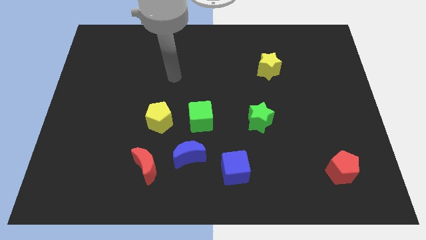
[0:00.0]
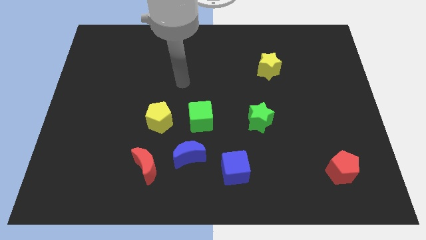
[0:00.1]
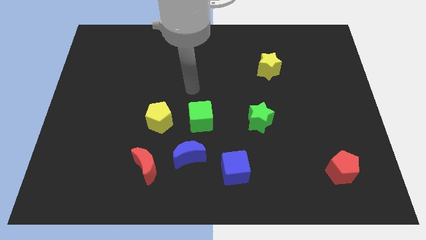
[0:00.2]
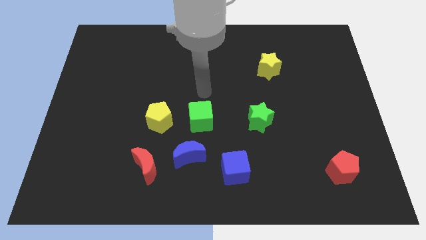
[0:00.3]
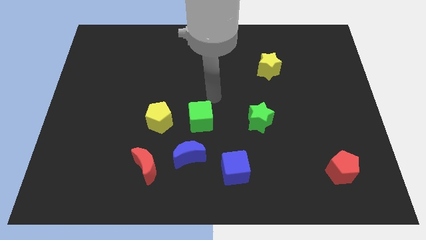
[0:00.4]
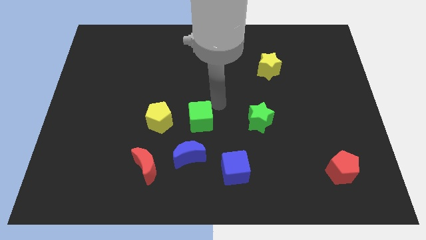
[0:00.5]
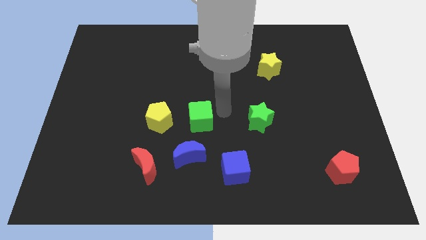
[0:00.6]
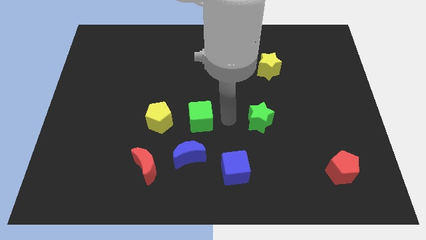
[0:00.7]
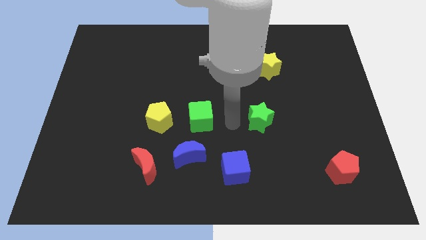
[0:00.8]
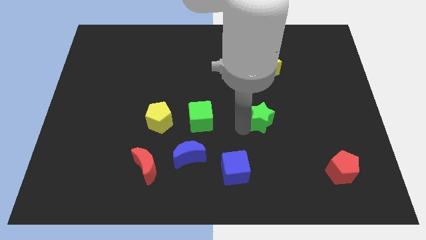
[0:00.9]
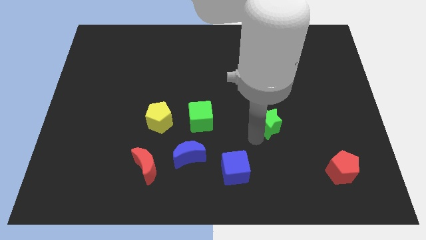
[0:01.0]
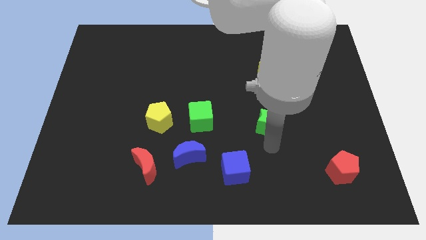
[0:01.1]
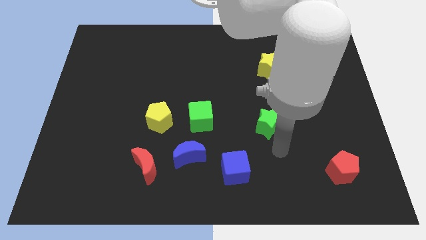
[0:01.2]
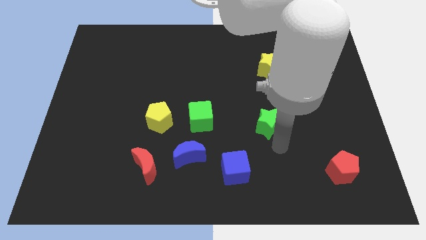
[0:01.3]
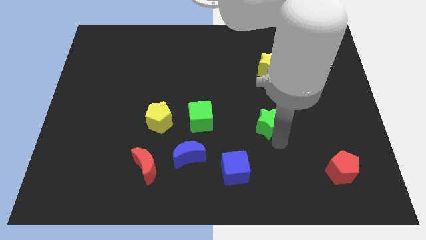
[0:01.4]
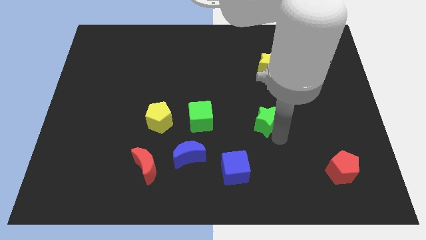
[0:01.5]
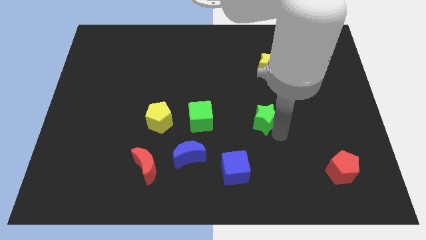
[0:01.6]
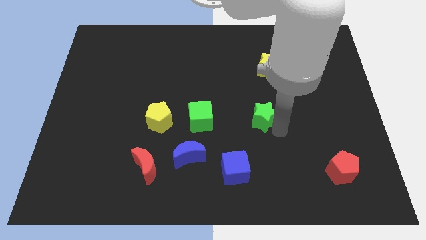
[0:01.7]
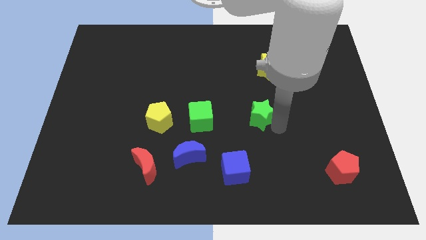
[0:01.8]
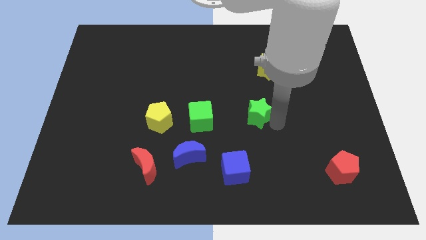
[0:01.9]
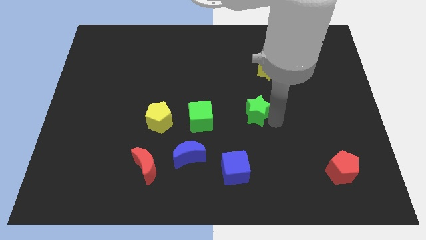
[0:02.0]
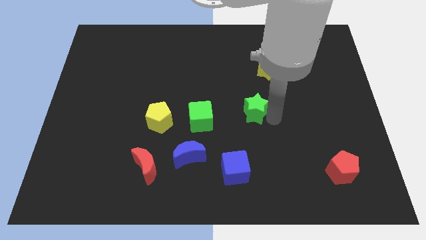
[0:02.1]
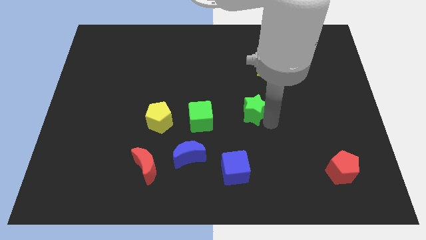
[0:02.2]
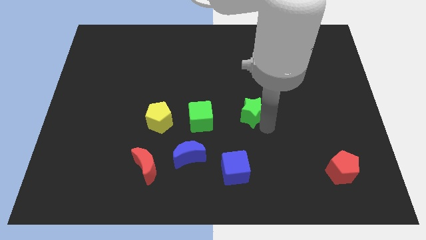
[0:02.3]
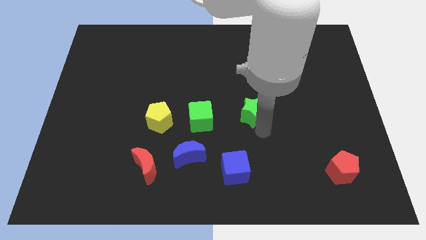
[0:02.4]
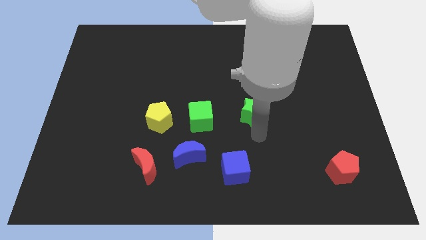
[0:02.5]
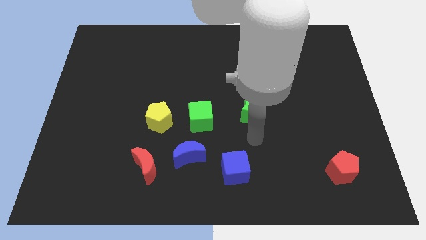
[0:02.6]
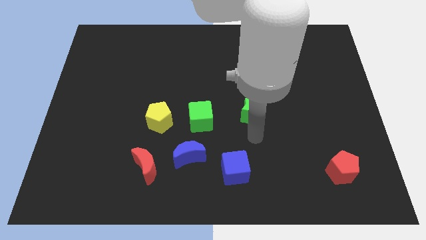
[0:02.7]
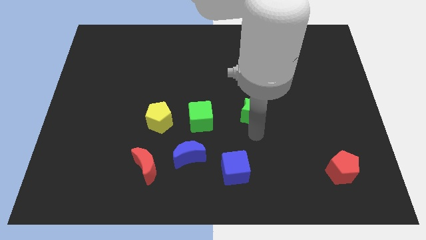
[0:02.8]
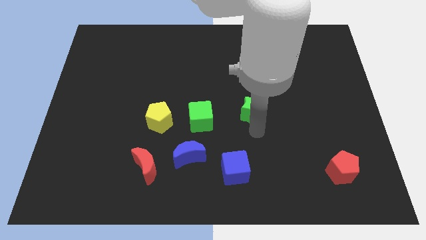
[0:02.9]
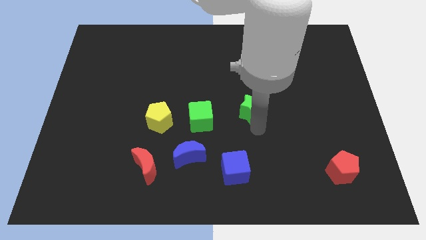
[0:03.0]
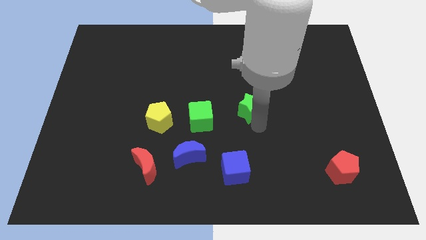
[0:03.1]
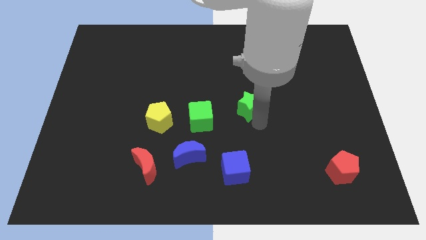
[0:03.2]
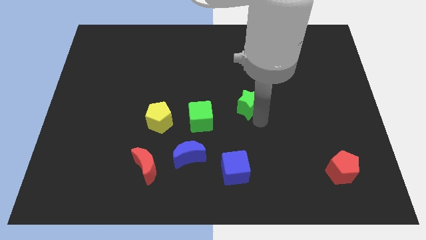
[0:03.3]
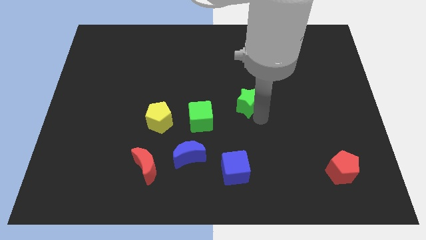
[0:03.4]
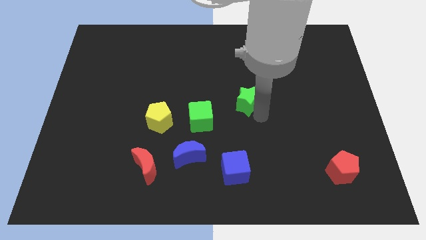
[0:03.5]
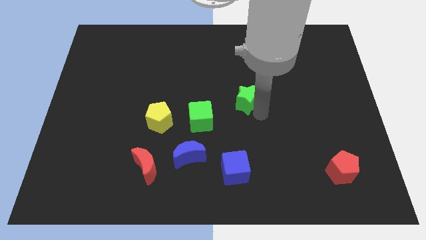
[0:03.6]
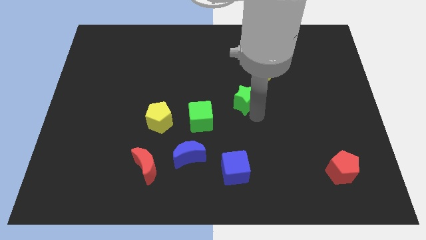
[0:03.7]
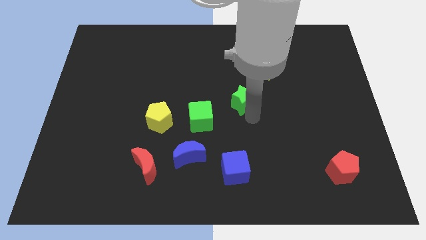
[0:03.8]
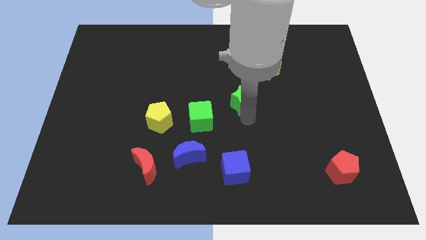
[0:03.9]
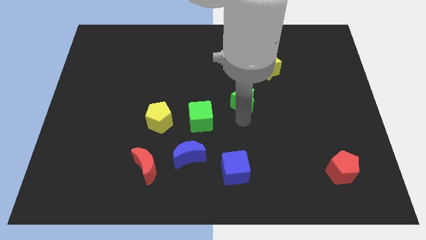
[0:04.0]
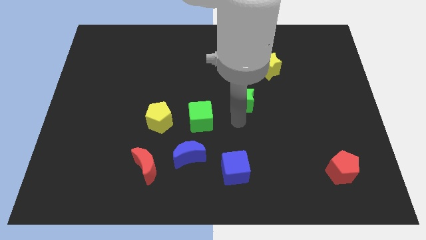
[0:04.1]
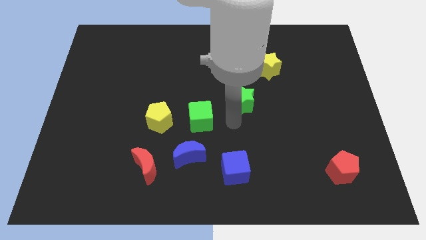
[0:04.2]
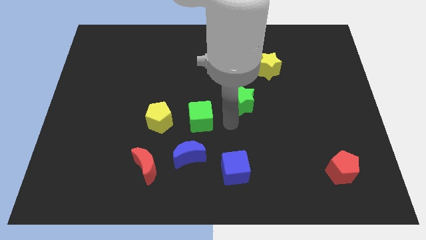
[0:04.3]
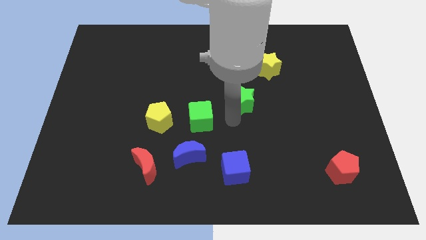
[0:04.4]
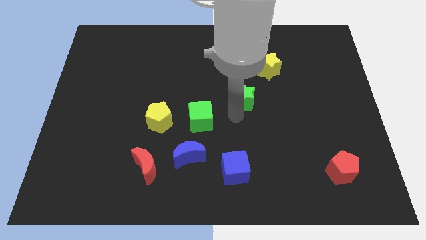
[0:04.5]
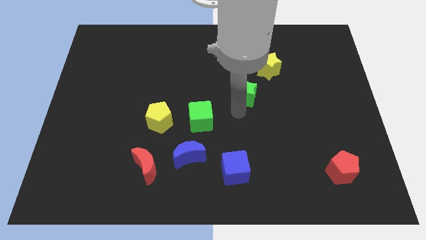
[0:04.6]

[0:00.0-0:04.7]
move the green star a little upwards

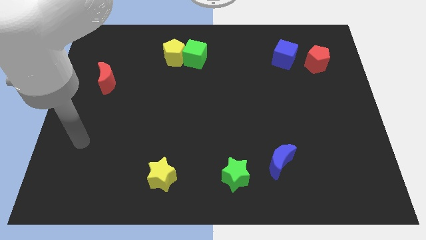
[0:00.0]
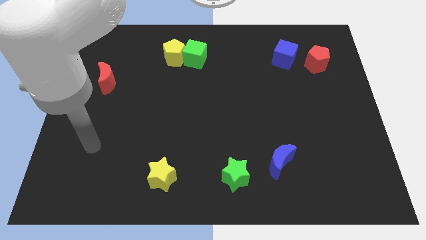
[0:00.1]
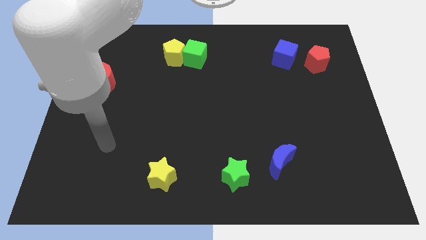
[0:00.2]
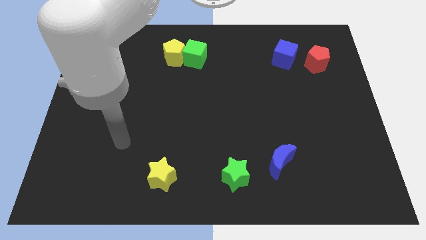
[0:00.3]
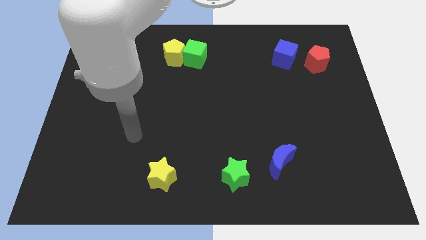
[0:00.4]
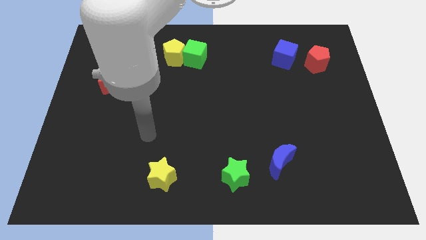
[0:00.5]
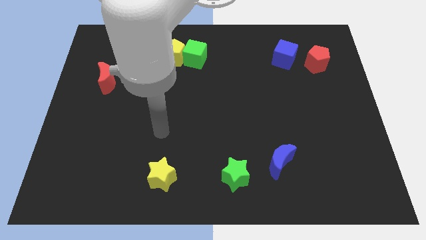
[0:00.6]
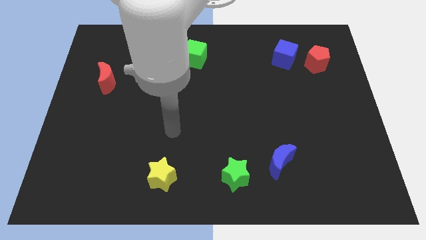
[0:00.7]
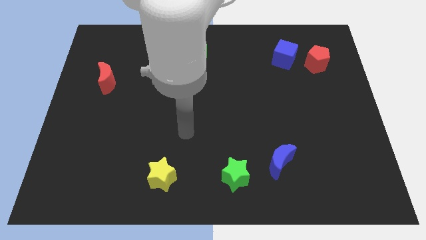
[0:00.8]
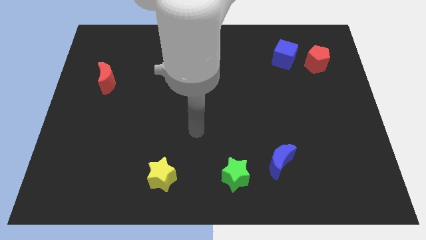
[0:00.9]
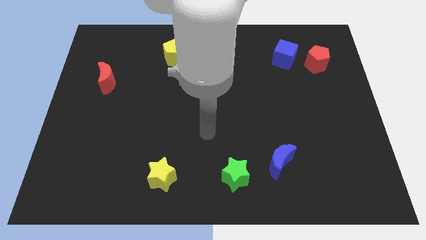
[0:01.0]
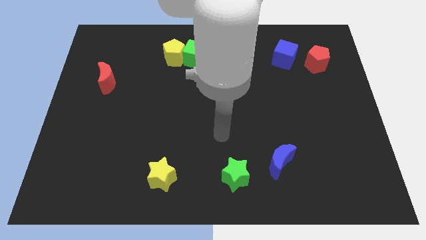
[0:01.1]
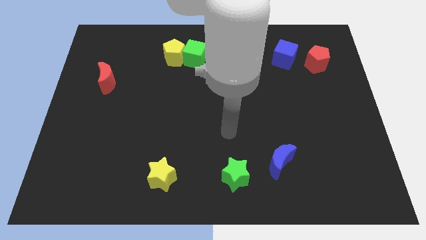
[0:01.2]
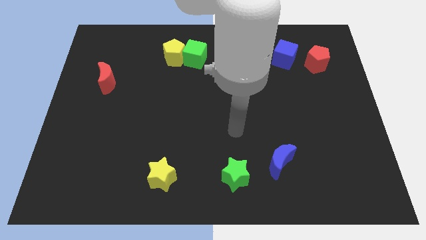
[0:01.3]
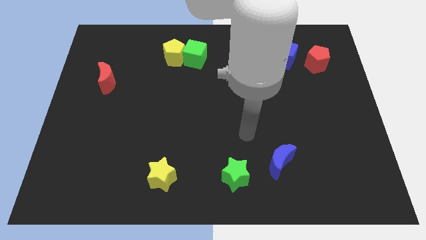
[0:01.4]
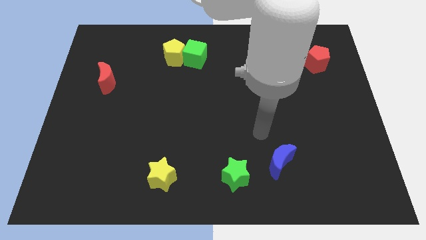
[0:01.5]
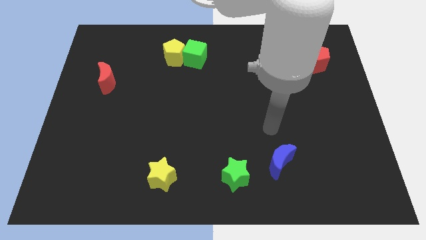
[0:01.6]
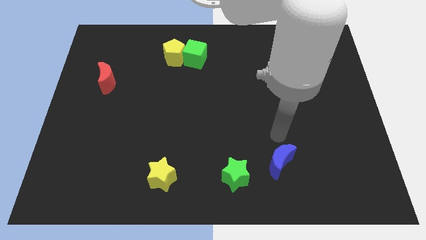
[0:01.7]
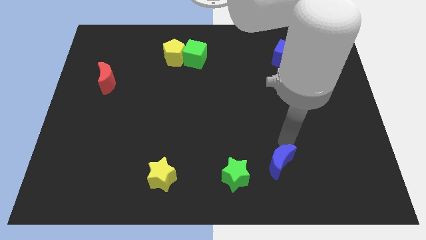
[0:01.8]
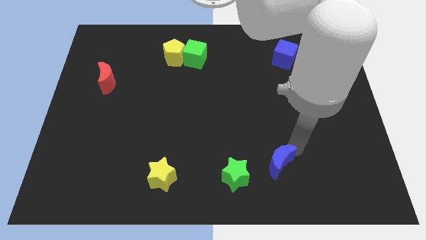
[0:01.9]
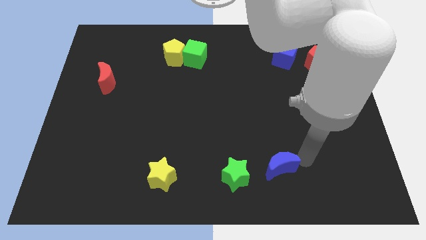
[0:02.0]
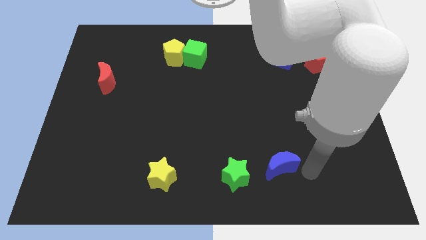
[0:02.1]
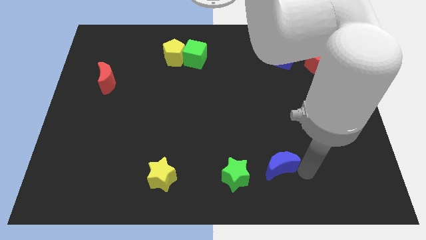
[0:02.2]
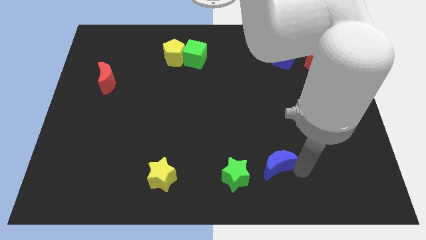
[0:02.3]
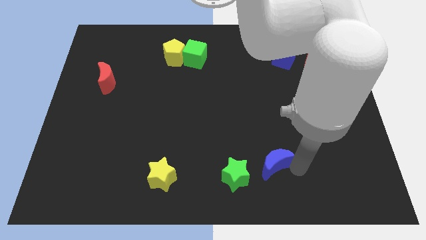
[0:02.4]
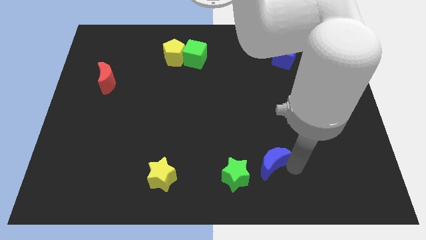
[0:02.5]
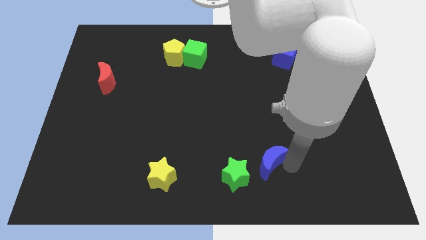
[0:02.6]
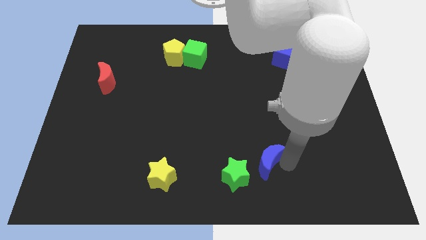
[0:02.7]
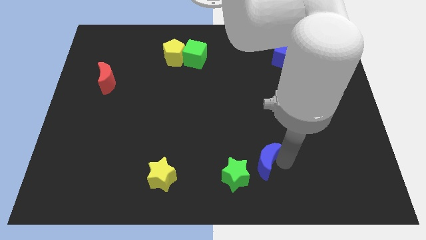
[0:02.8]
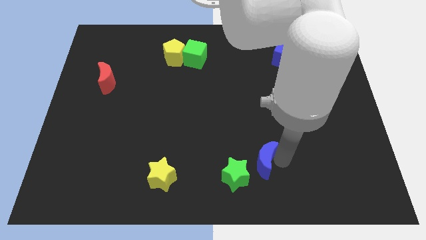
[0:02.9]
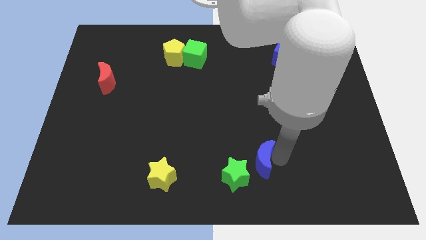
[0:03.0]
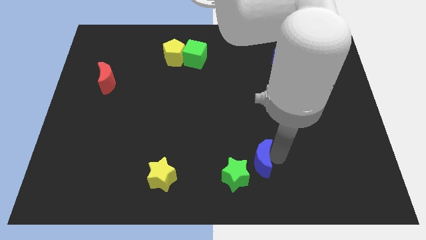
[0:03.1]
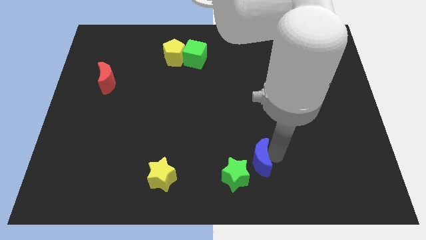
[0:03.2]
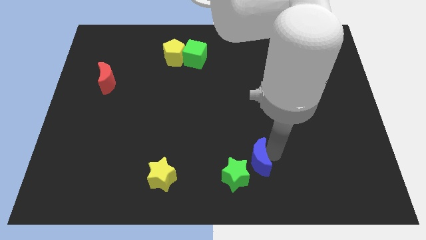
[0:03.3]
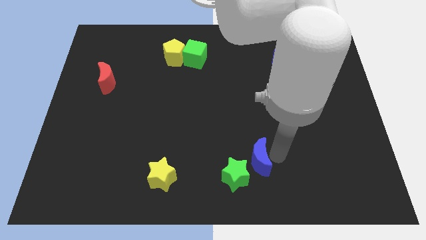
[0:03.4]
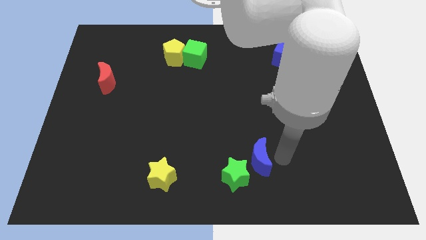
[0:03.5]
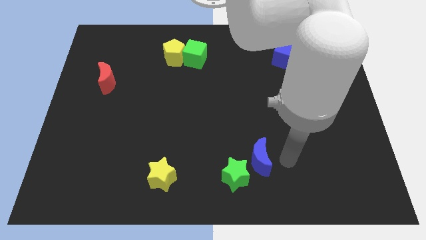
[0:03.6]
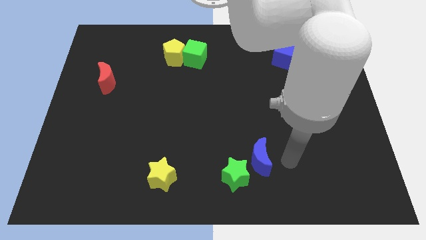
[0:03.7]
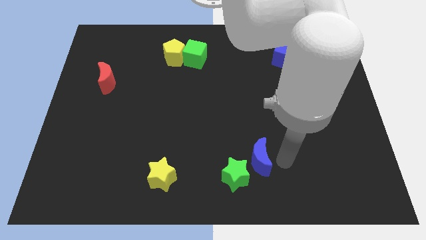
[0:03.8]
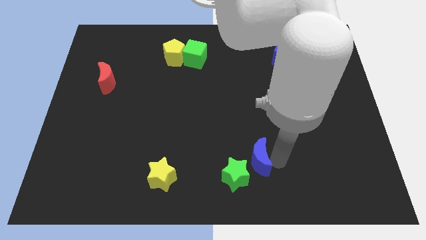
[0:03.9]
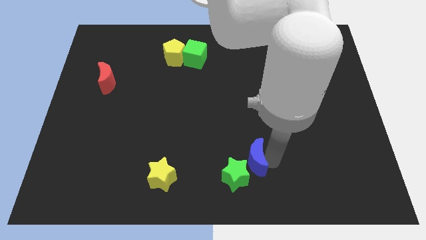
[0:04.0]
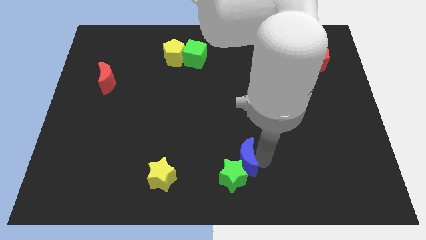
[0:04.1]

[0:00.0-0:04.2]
slightly move the blue moon left
